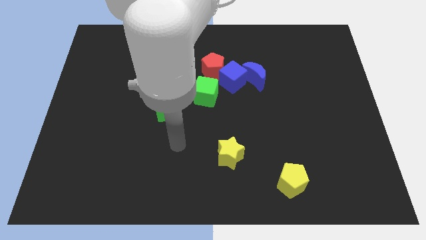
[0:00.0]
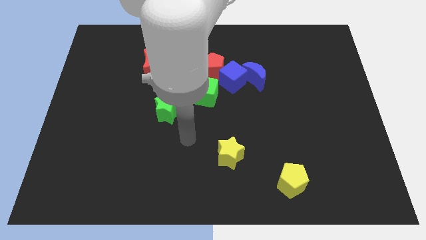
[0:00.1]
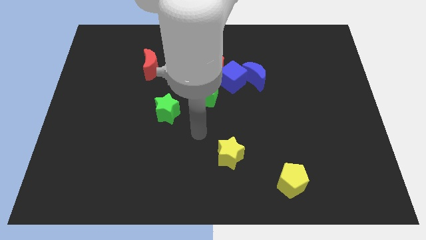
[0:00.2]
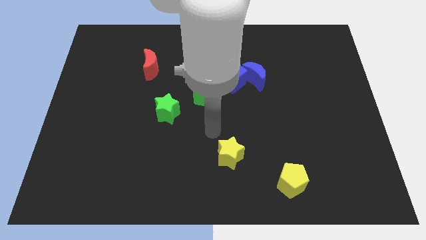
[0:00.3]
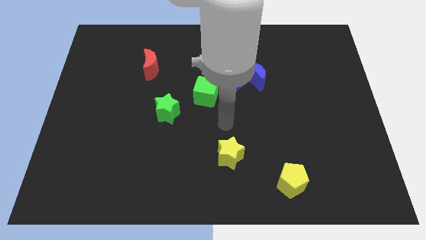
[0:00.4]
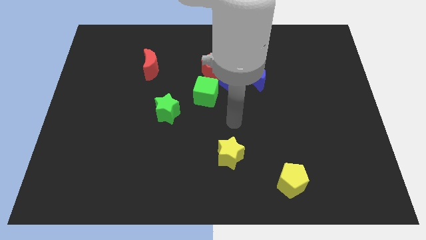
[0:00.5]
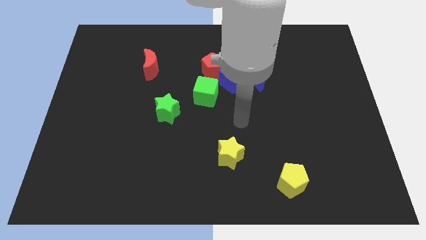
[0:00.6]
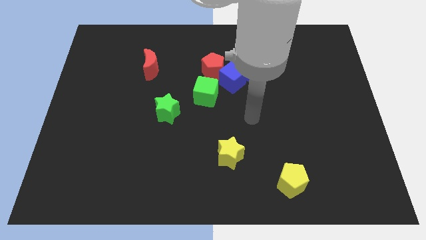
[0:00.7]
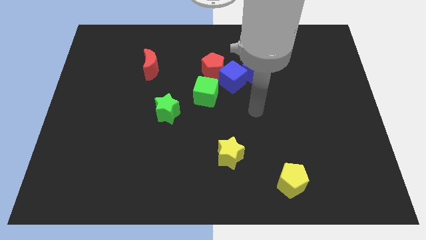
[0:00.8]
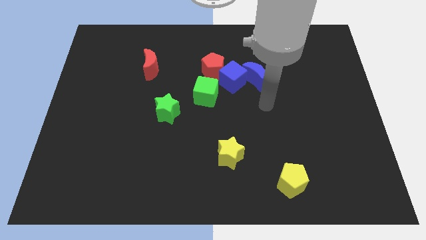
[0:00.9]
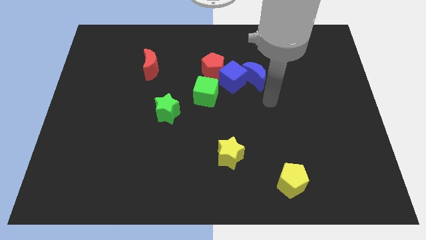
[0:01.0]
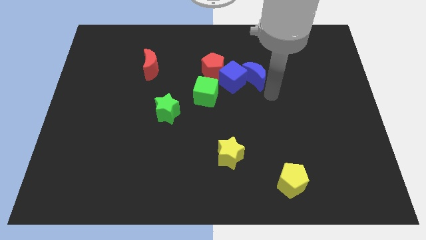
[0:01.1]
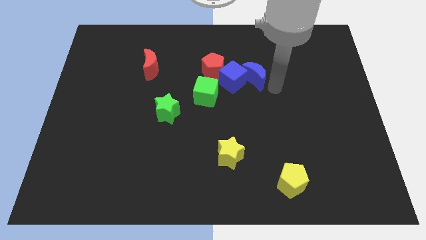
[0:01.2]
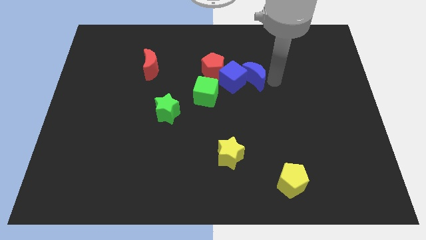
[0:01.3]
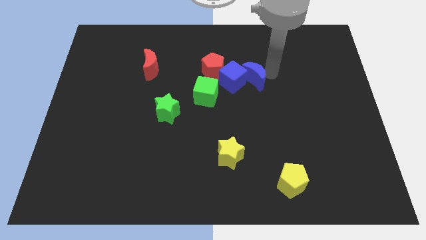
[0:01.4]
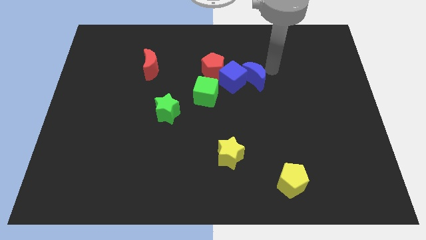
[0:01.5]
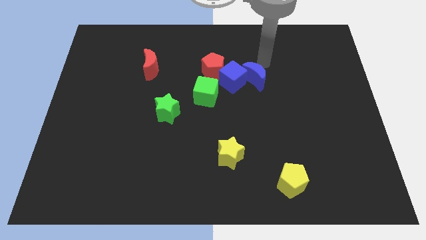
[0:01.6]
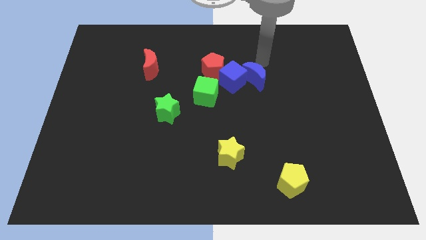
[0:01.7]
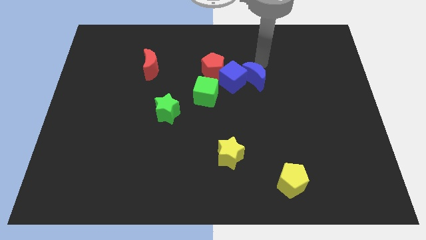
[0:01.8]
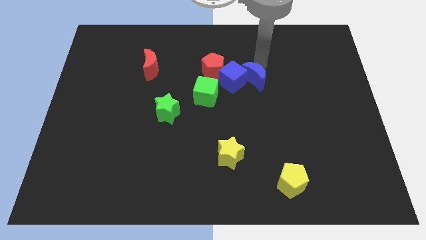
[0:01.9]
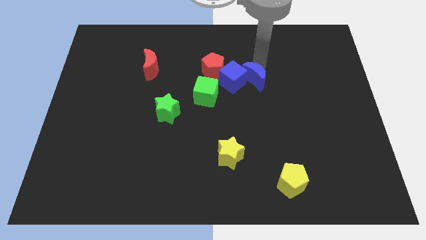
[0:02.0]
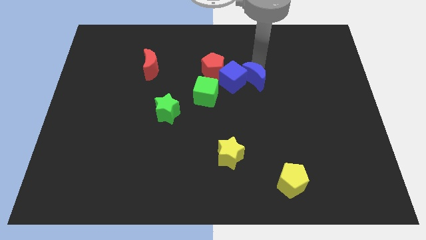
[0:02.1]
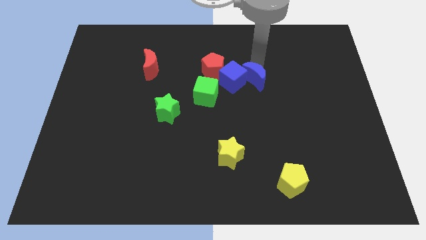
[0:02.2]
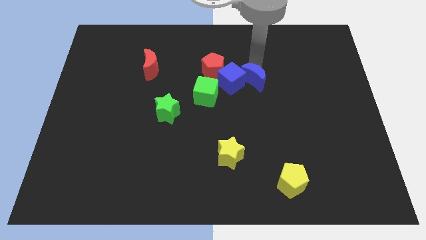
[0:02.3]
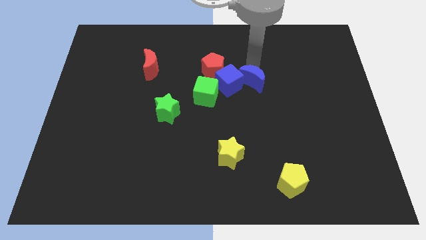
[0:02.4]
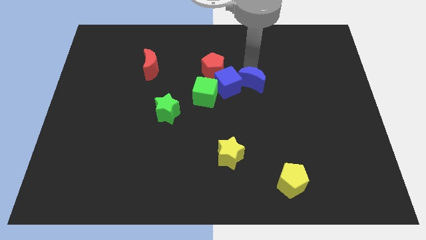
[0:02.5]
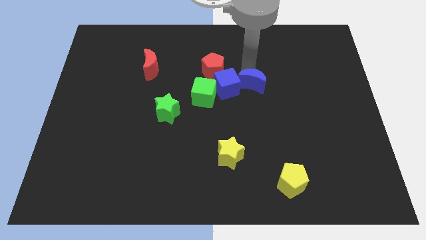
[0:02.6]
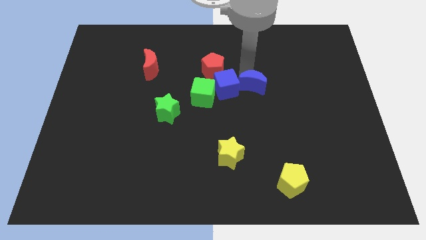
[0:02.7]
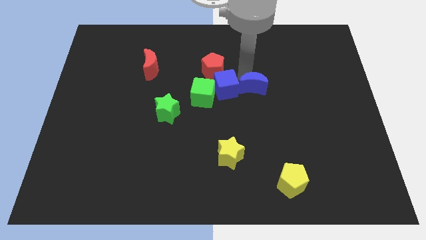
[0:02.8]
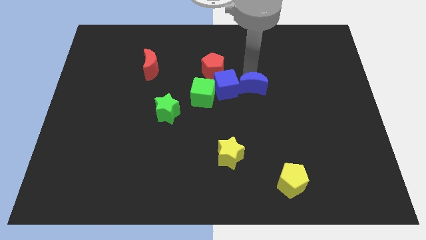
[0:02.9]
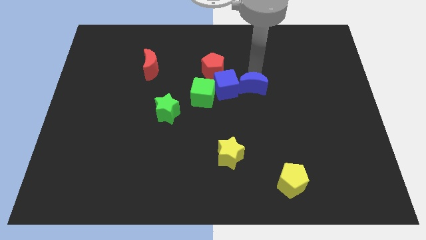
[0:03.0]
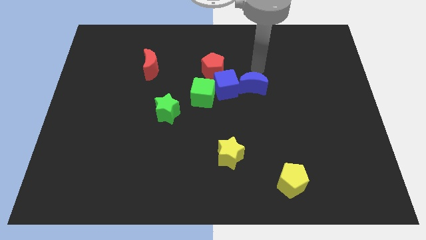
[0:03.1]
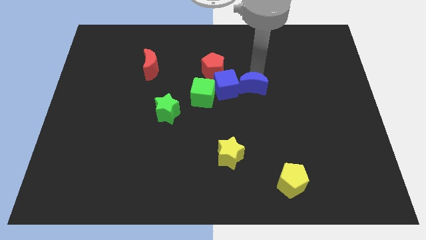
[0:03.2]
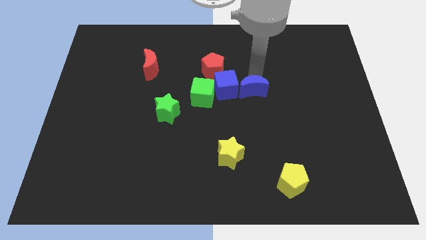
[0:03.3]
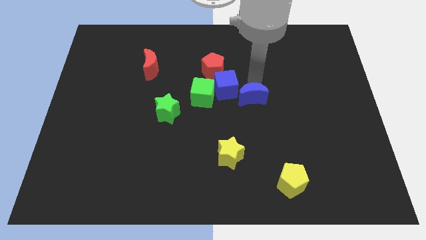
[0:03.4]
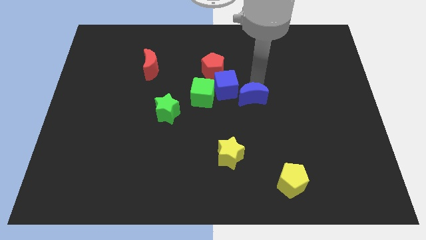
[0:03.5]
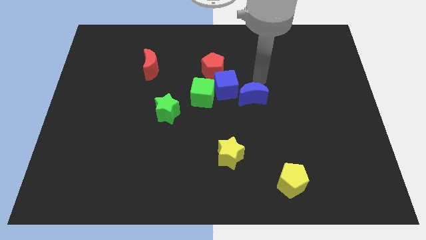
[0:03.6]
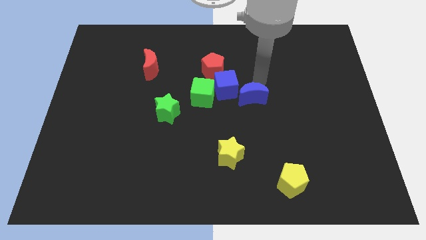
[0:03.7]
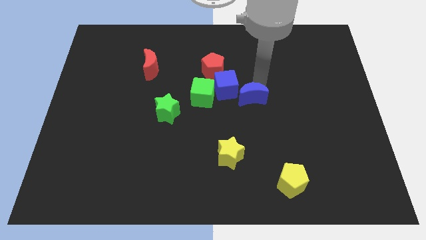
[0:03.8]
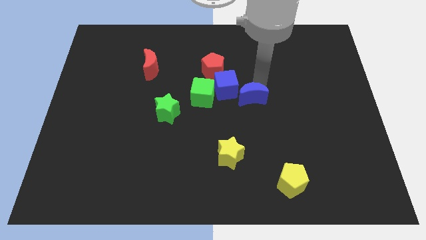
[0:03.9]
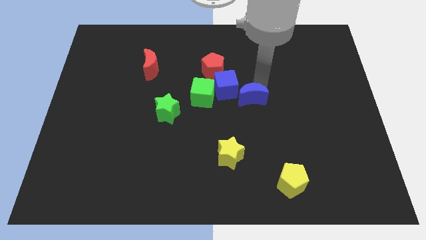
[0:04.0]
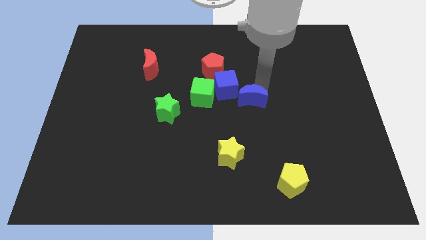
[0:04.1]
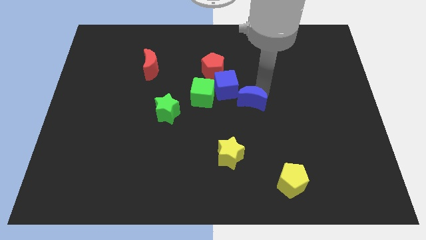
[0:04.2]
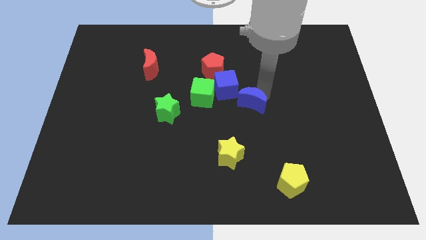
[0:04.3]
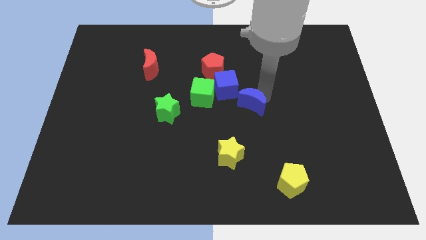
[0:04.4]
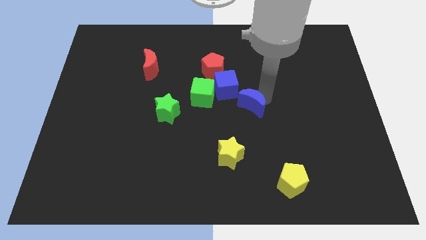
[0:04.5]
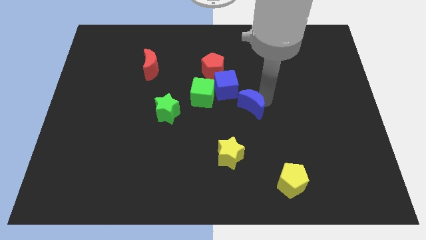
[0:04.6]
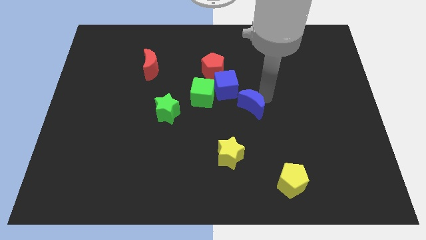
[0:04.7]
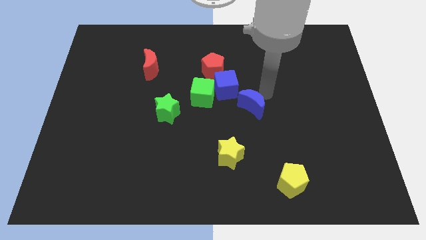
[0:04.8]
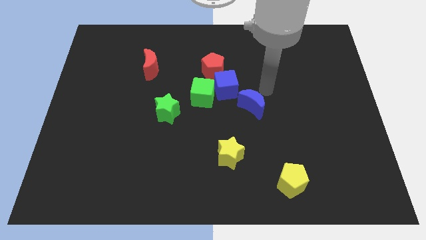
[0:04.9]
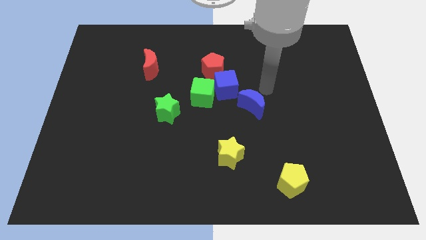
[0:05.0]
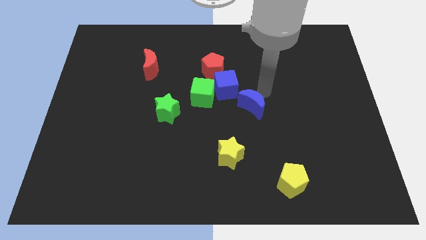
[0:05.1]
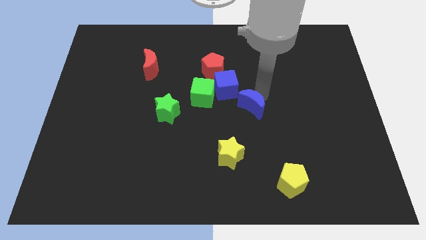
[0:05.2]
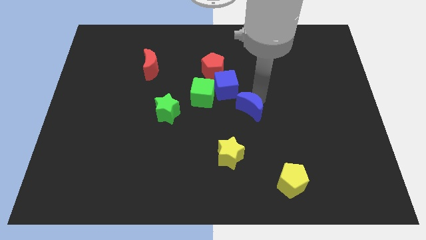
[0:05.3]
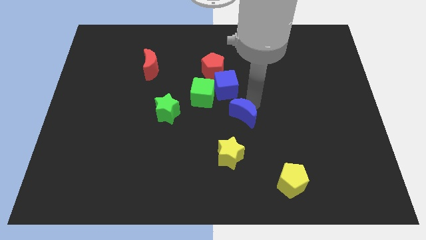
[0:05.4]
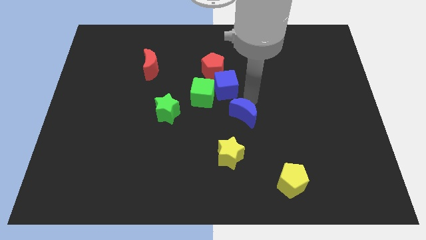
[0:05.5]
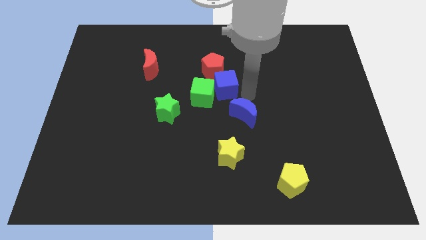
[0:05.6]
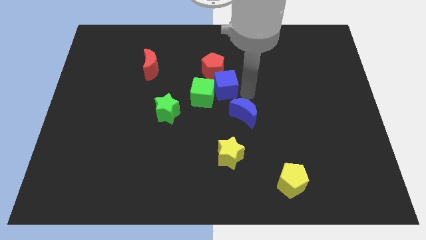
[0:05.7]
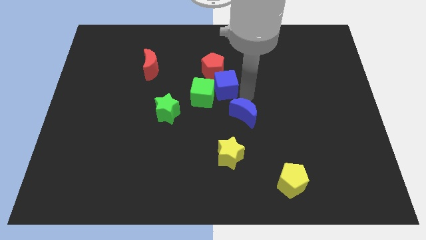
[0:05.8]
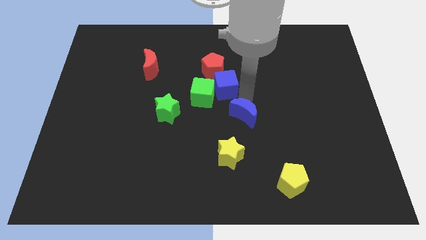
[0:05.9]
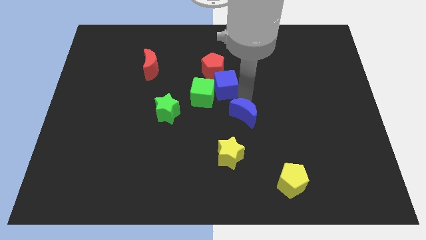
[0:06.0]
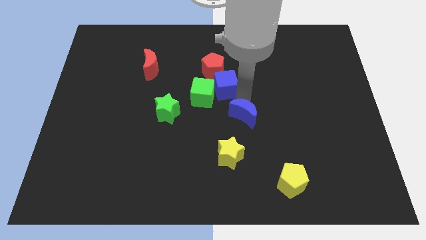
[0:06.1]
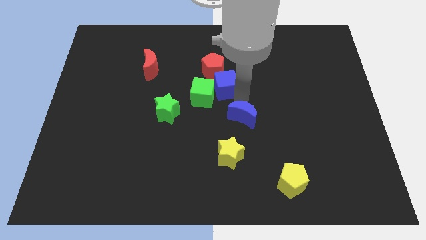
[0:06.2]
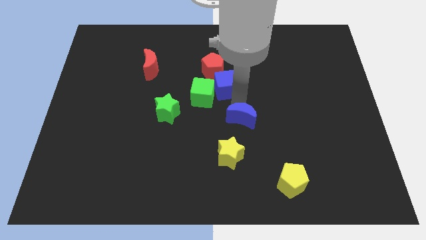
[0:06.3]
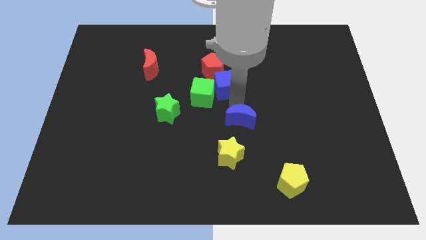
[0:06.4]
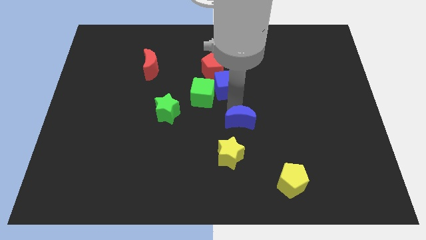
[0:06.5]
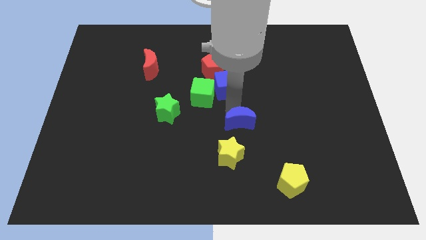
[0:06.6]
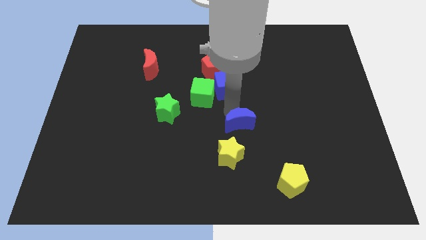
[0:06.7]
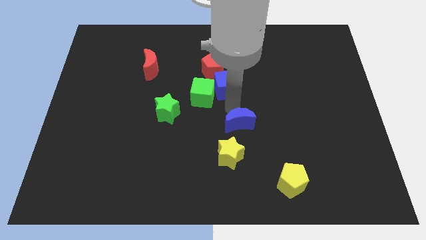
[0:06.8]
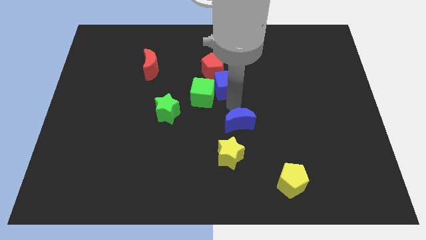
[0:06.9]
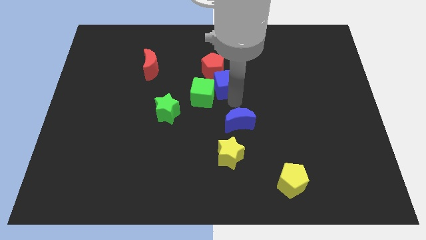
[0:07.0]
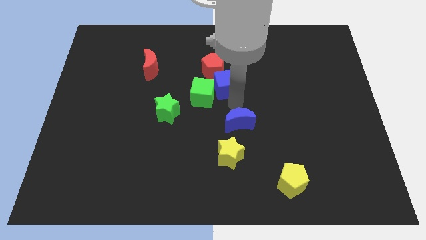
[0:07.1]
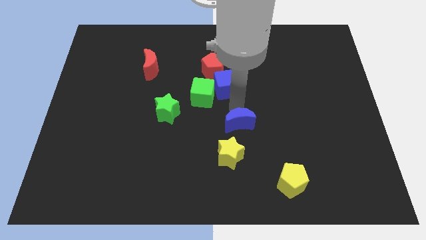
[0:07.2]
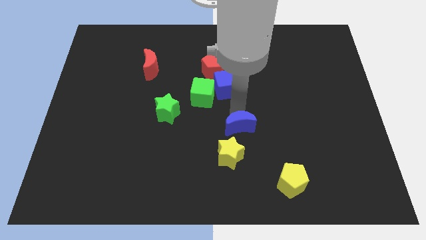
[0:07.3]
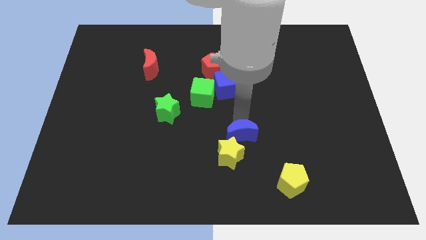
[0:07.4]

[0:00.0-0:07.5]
slide the blue moon to the yellow star

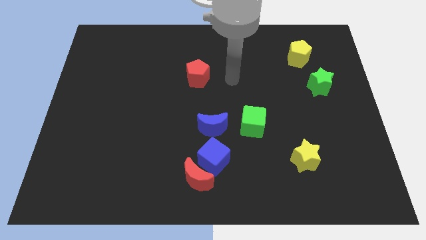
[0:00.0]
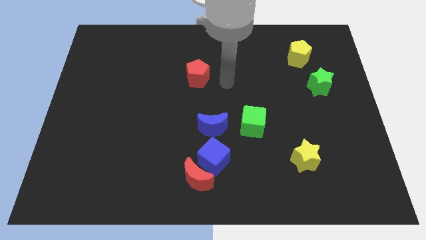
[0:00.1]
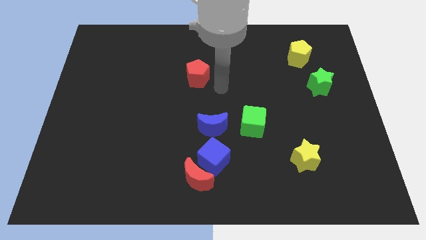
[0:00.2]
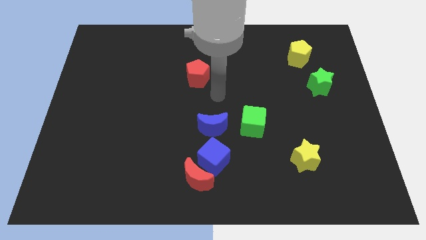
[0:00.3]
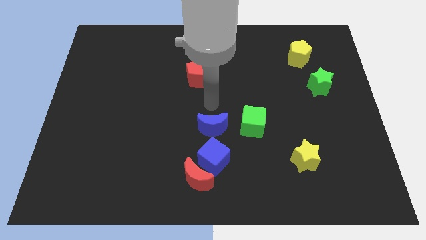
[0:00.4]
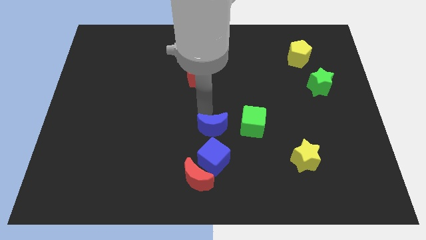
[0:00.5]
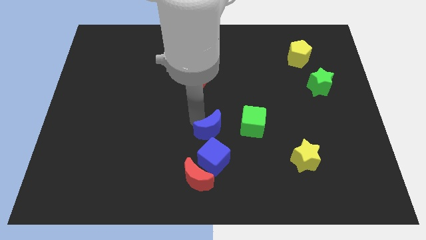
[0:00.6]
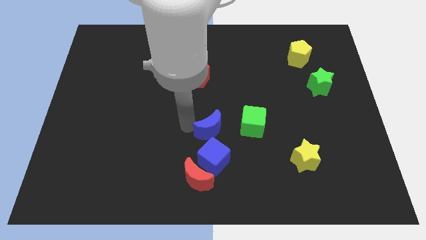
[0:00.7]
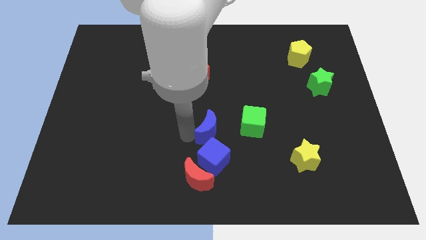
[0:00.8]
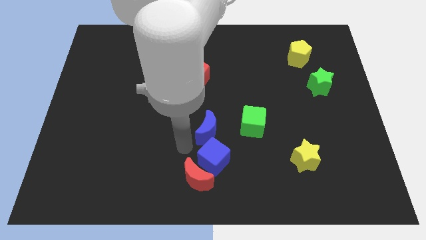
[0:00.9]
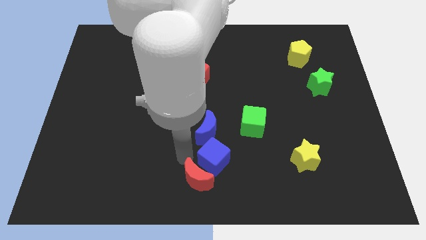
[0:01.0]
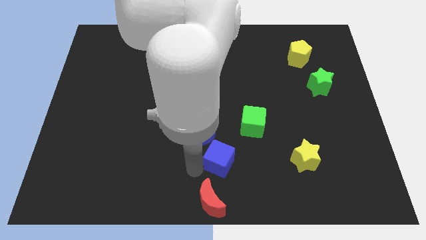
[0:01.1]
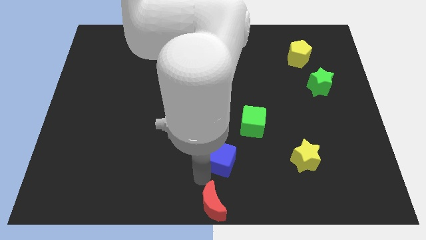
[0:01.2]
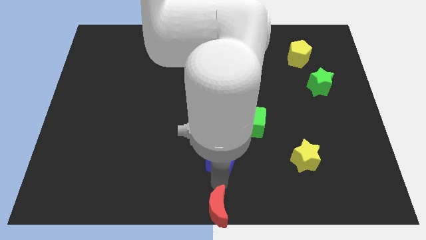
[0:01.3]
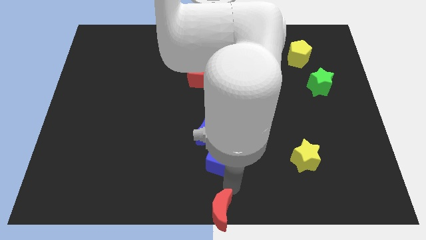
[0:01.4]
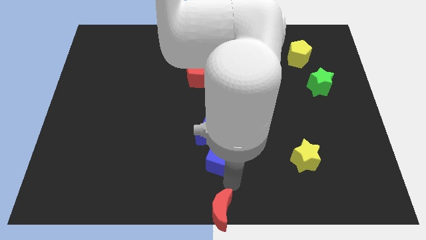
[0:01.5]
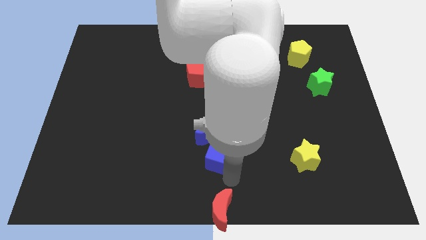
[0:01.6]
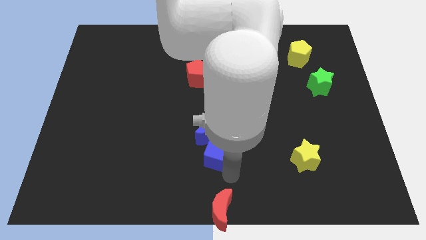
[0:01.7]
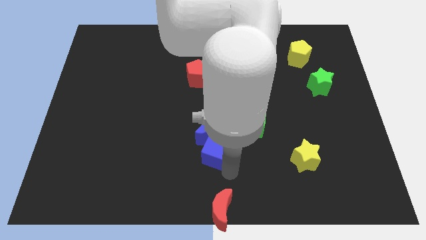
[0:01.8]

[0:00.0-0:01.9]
push the blue cube close to the blue moon
